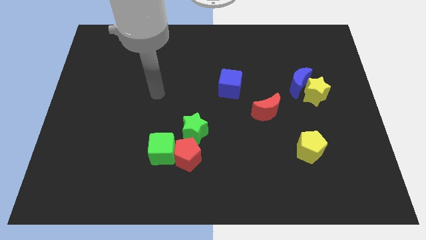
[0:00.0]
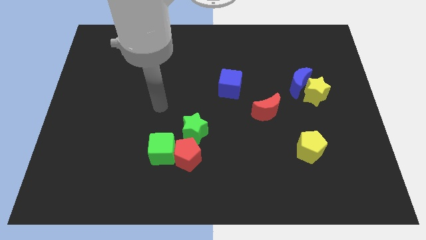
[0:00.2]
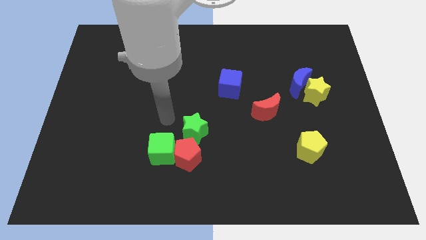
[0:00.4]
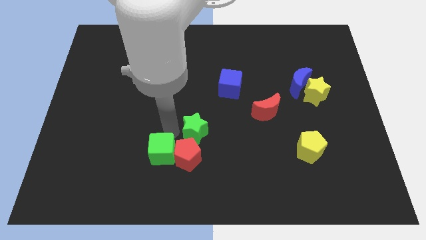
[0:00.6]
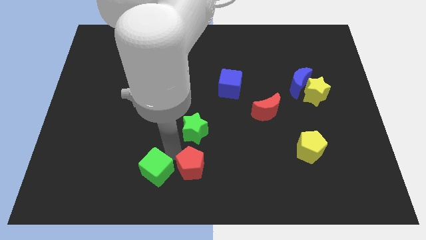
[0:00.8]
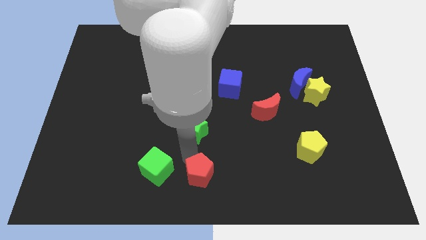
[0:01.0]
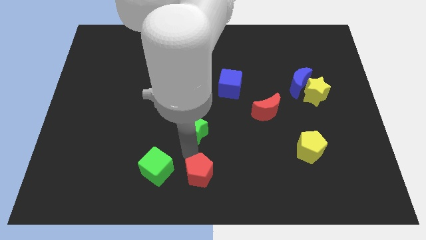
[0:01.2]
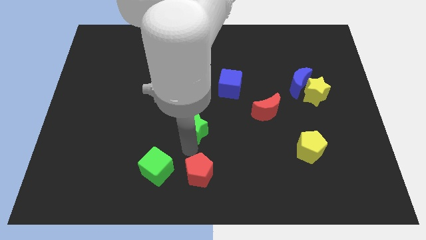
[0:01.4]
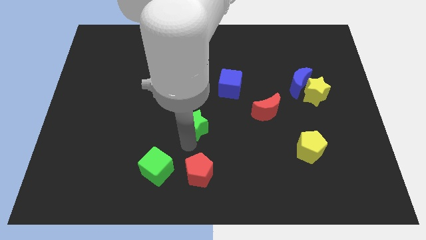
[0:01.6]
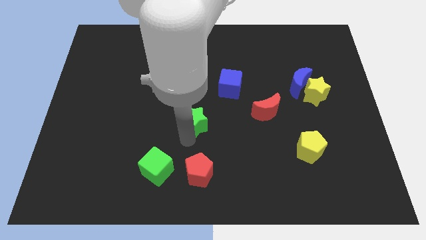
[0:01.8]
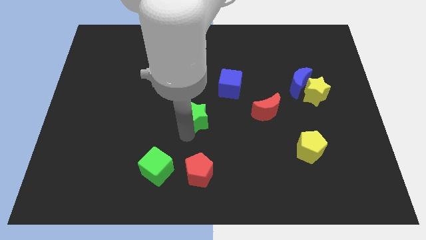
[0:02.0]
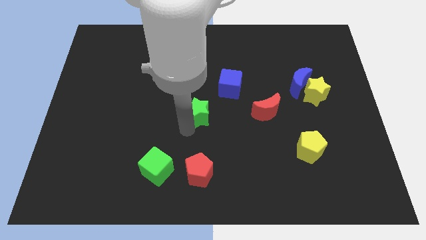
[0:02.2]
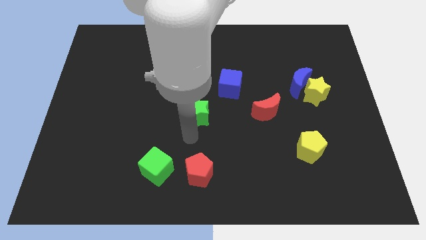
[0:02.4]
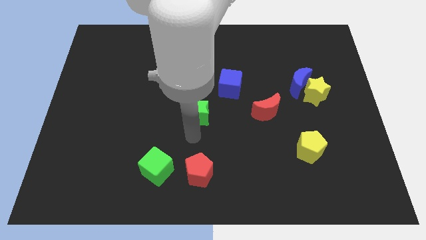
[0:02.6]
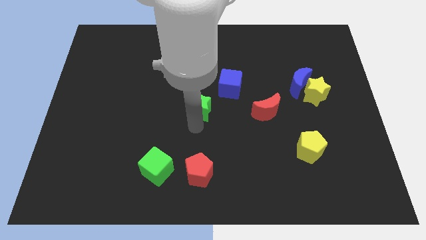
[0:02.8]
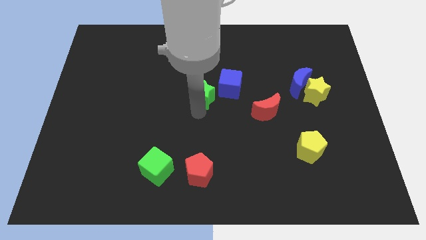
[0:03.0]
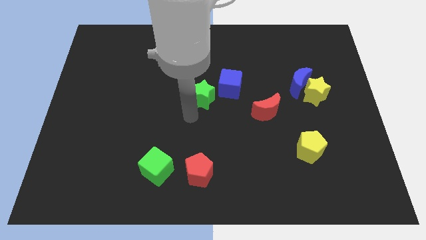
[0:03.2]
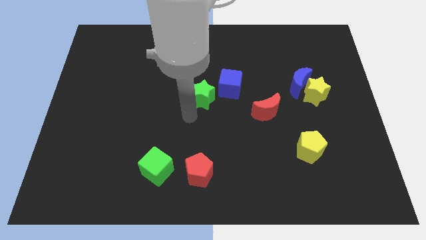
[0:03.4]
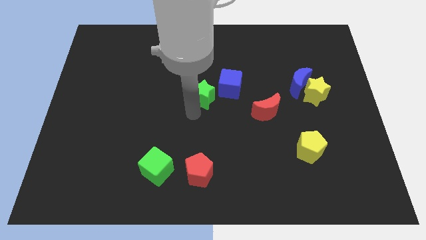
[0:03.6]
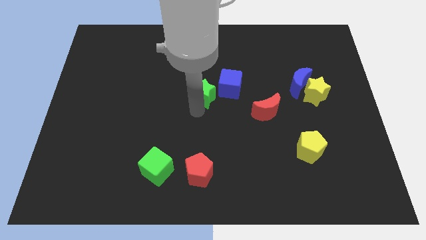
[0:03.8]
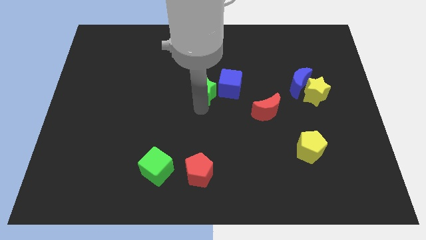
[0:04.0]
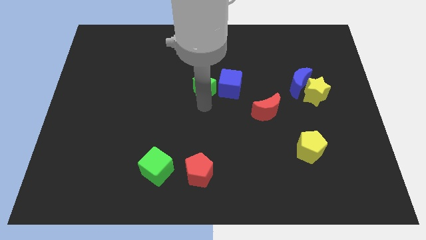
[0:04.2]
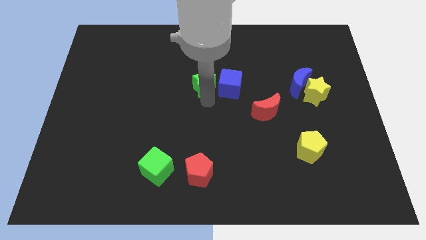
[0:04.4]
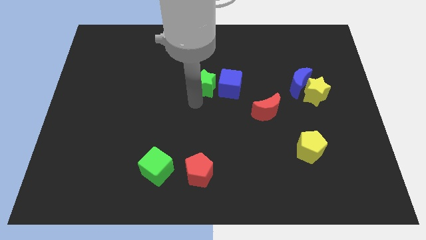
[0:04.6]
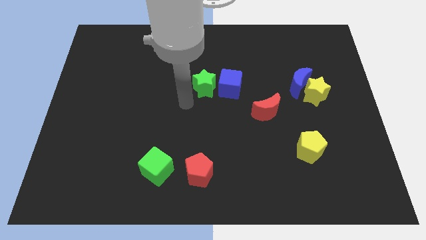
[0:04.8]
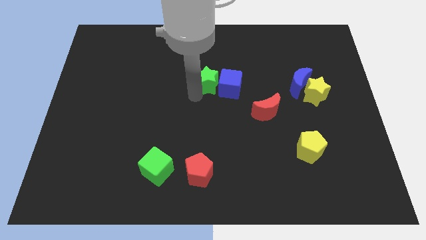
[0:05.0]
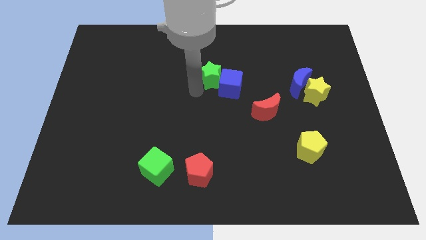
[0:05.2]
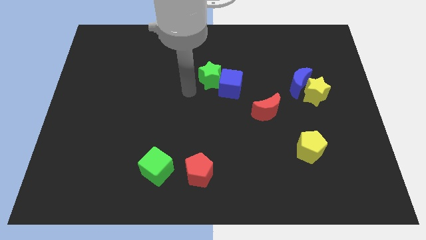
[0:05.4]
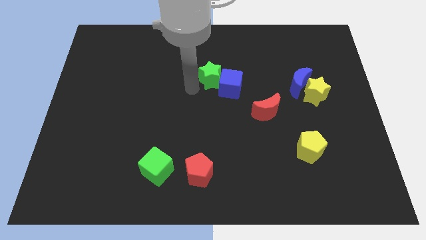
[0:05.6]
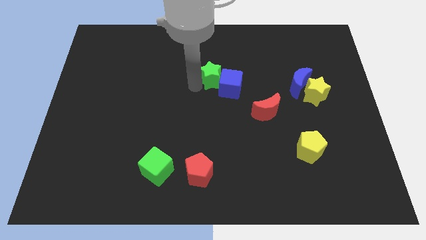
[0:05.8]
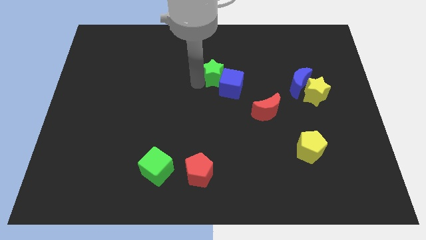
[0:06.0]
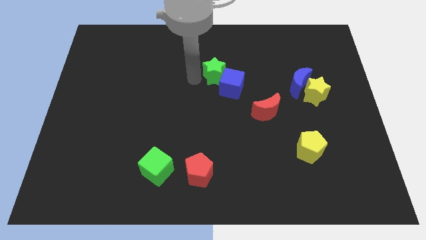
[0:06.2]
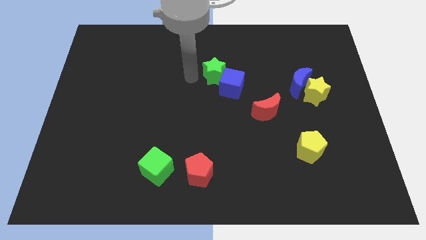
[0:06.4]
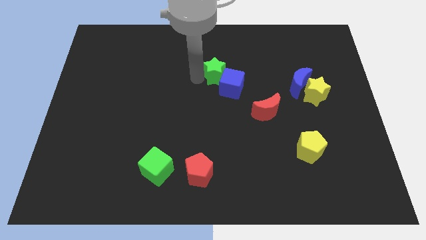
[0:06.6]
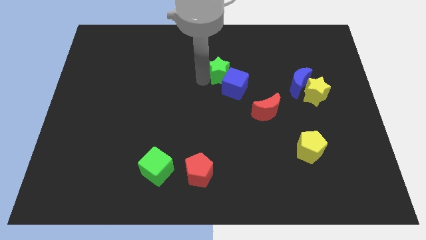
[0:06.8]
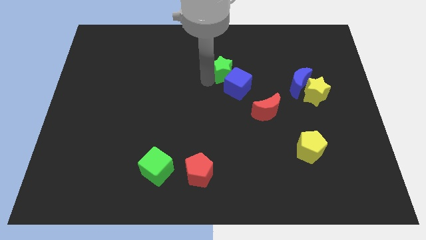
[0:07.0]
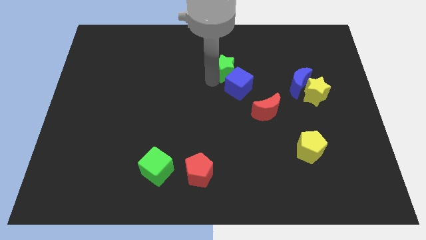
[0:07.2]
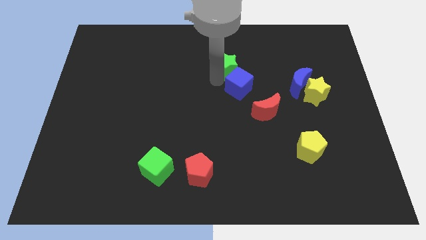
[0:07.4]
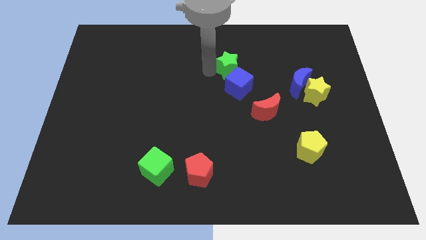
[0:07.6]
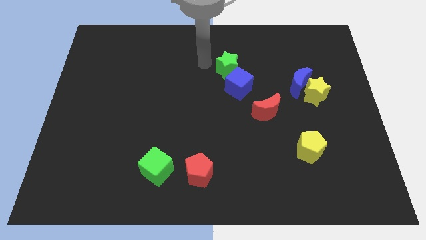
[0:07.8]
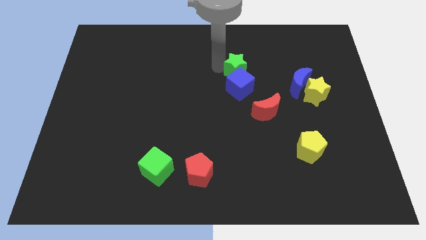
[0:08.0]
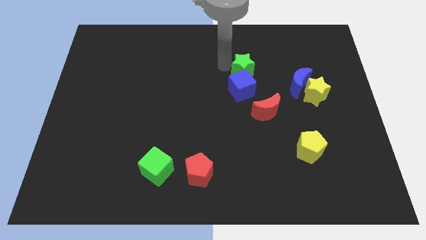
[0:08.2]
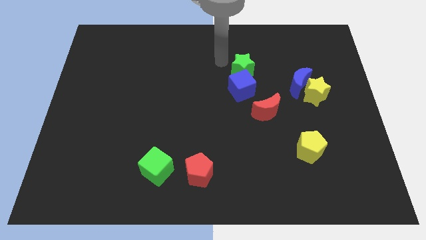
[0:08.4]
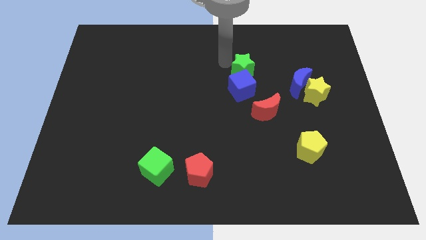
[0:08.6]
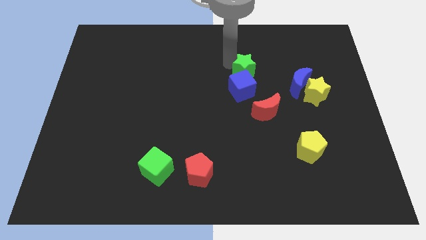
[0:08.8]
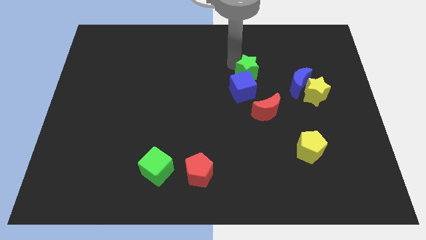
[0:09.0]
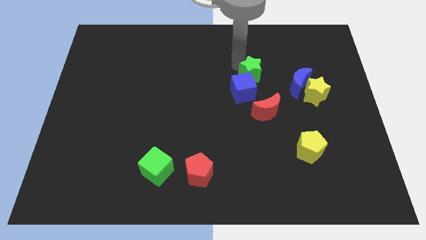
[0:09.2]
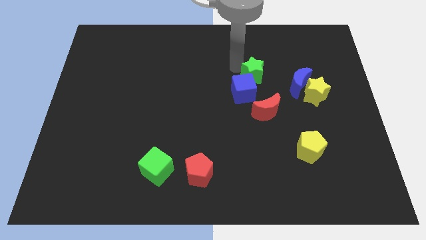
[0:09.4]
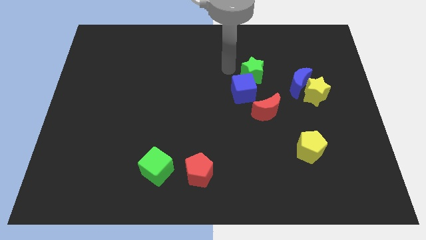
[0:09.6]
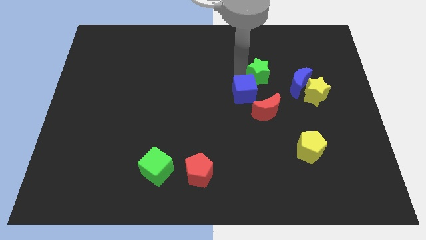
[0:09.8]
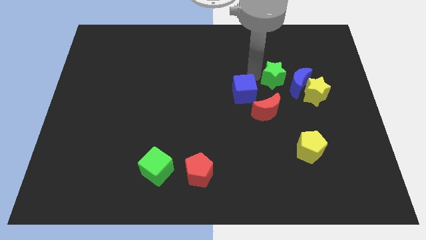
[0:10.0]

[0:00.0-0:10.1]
push the green star close to the blue moon

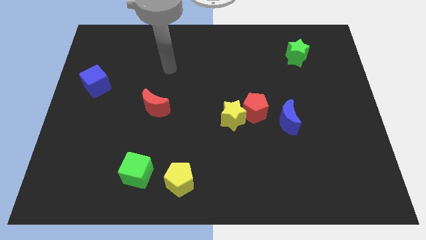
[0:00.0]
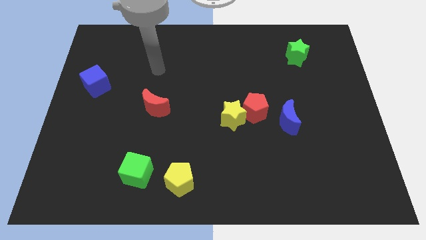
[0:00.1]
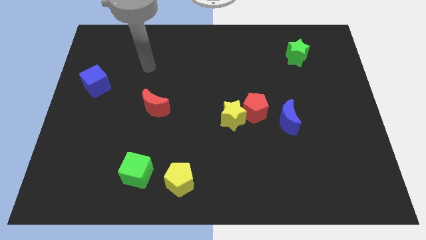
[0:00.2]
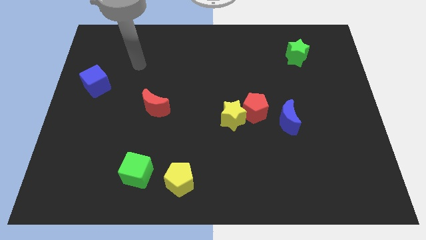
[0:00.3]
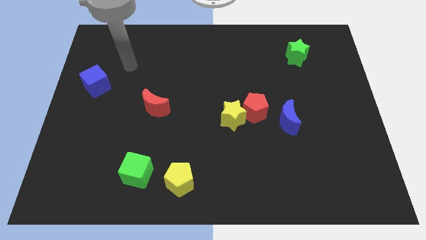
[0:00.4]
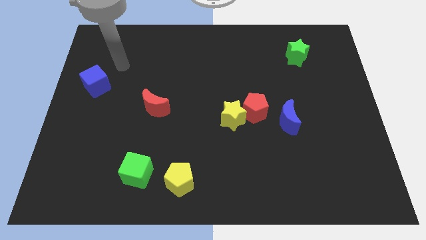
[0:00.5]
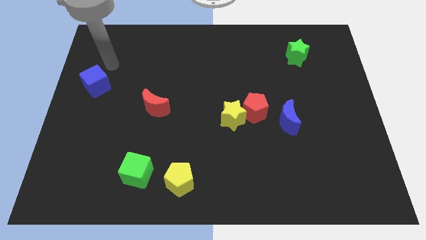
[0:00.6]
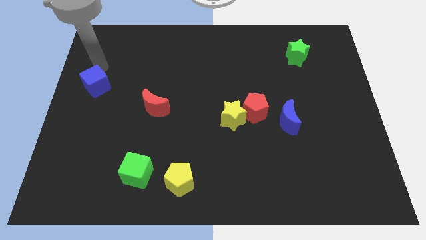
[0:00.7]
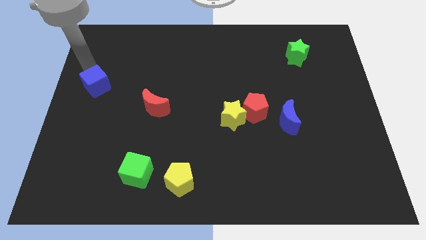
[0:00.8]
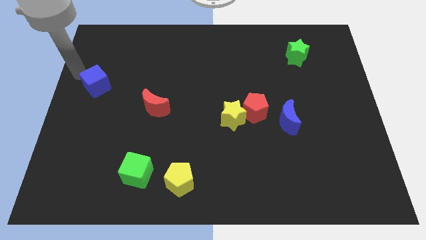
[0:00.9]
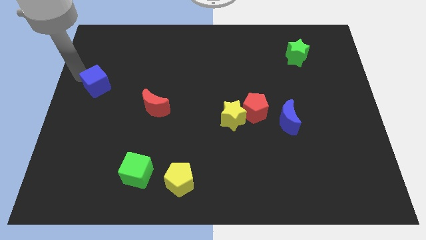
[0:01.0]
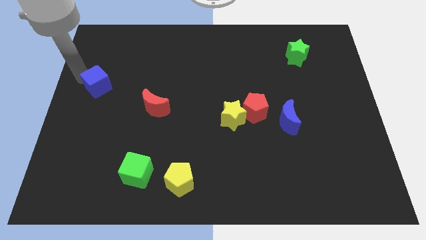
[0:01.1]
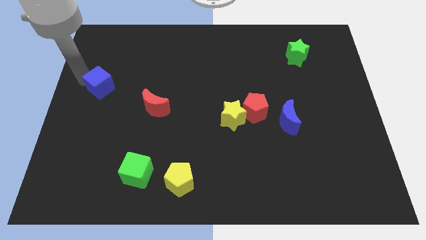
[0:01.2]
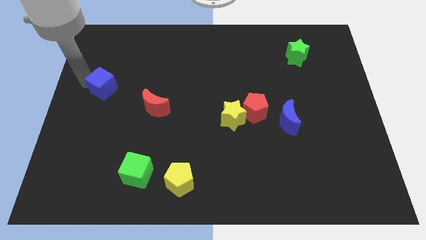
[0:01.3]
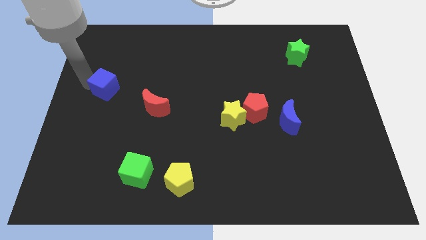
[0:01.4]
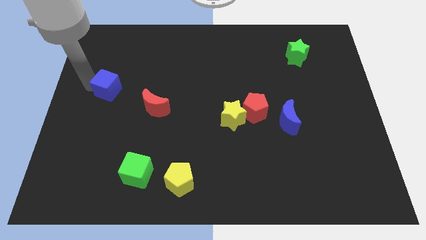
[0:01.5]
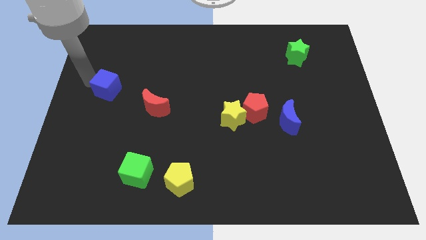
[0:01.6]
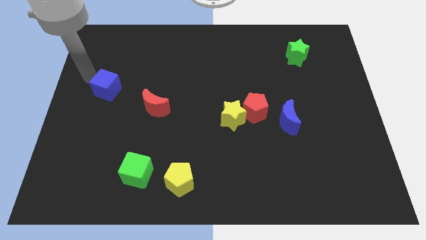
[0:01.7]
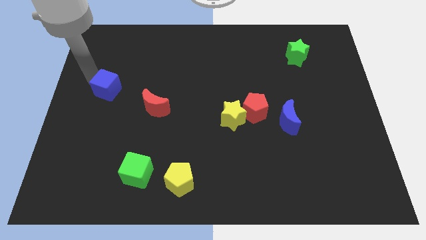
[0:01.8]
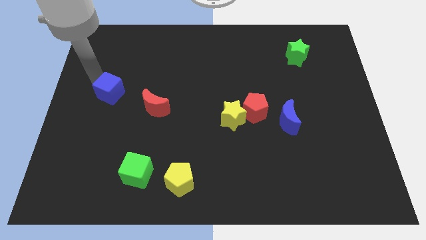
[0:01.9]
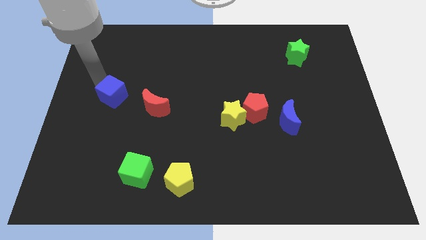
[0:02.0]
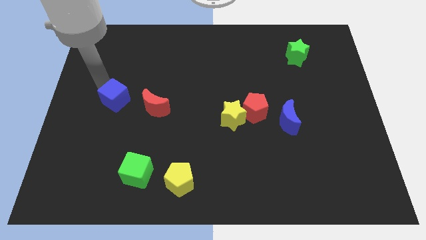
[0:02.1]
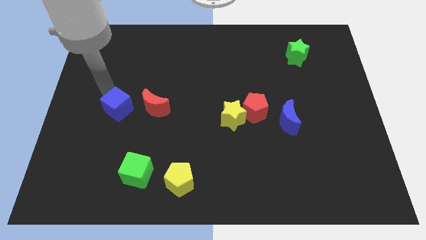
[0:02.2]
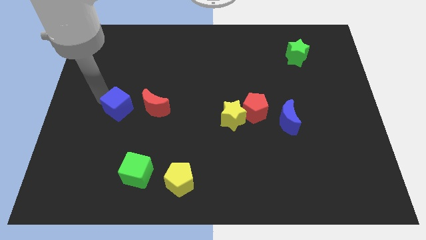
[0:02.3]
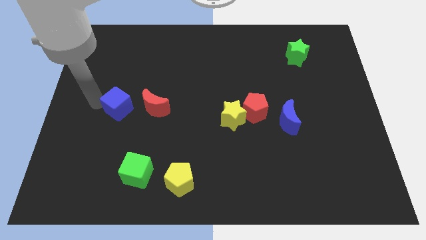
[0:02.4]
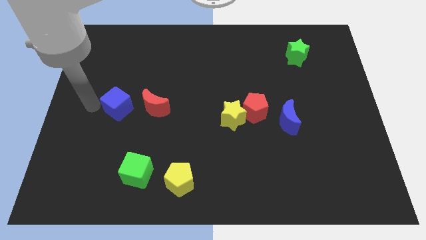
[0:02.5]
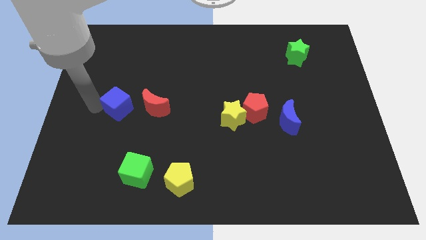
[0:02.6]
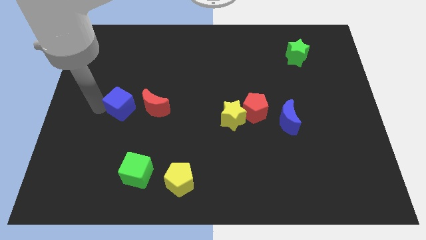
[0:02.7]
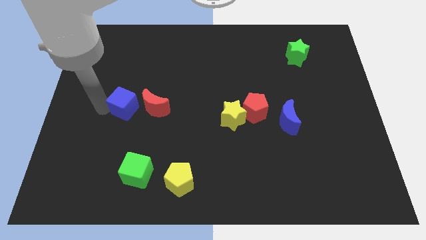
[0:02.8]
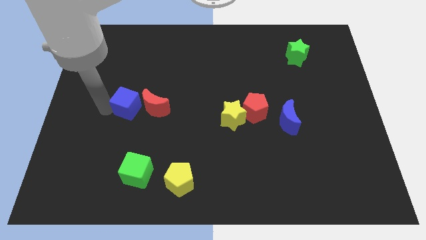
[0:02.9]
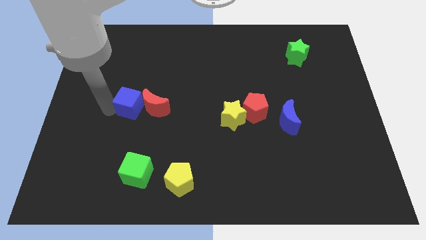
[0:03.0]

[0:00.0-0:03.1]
move the blue cube towards the red moon

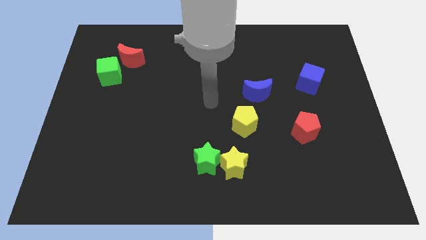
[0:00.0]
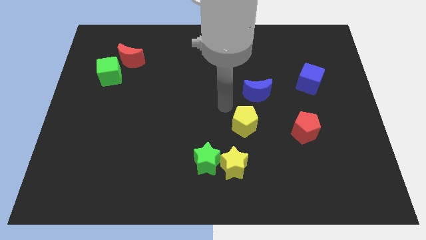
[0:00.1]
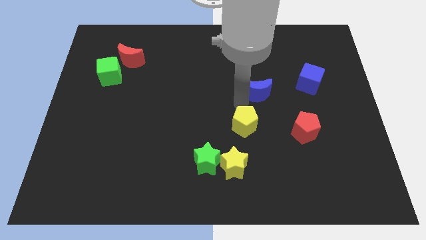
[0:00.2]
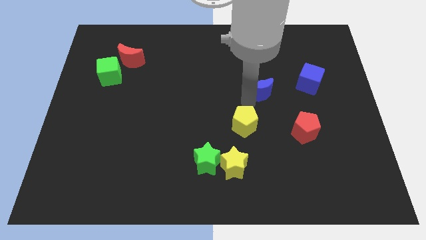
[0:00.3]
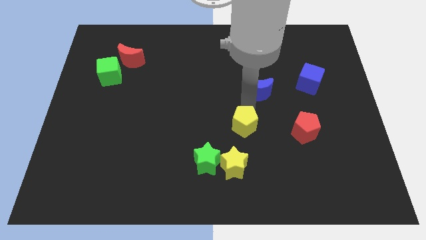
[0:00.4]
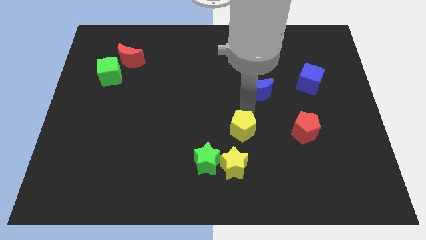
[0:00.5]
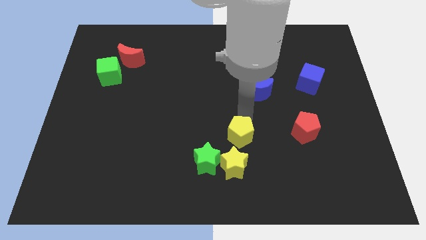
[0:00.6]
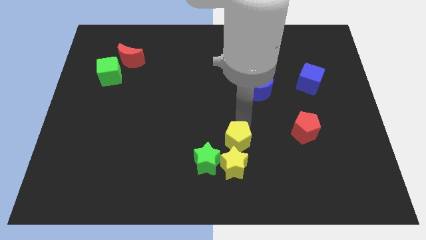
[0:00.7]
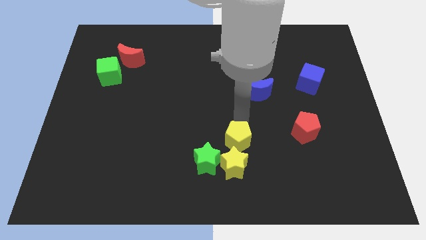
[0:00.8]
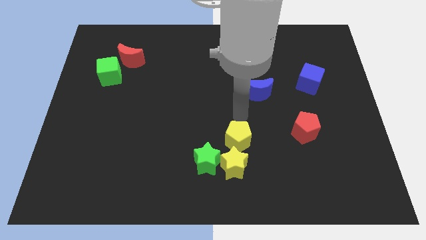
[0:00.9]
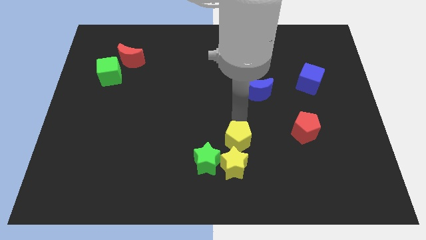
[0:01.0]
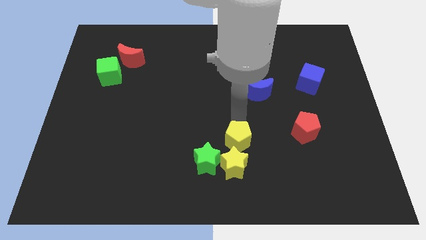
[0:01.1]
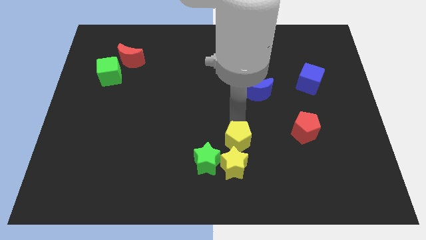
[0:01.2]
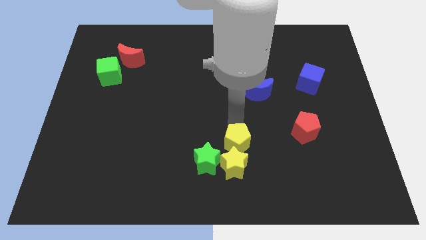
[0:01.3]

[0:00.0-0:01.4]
slide the yellow pentagon next to the yellow star
